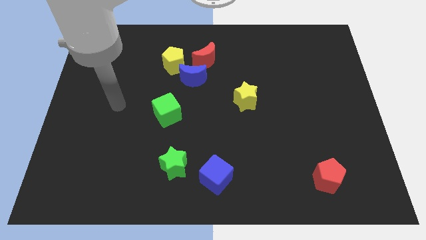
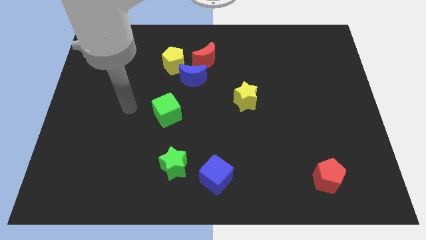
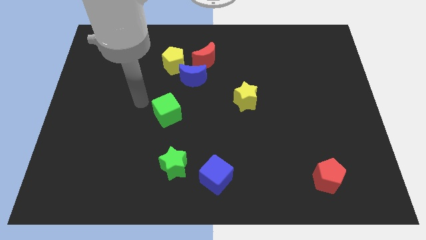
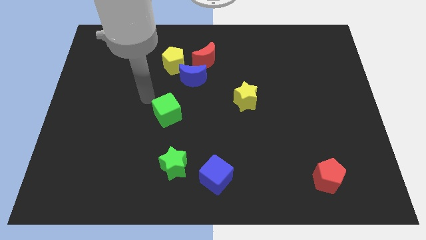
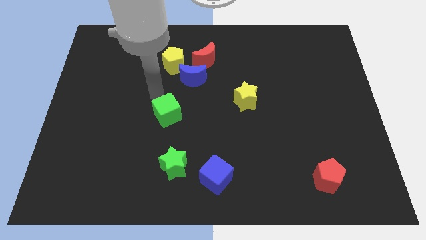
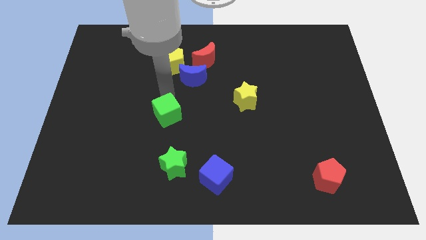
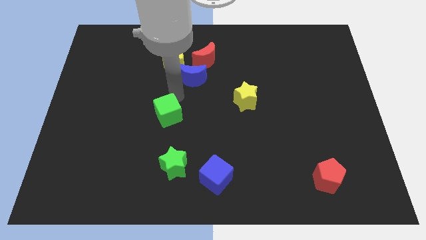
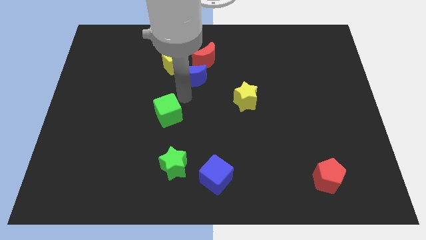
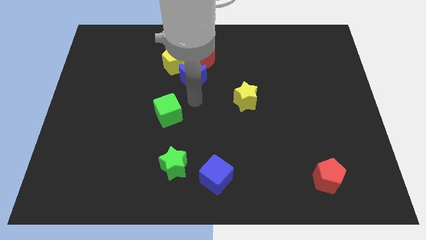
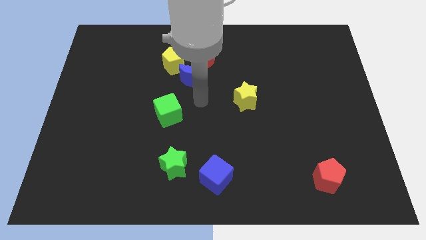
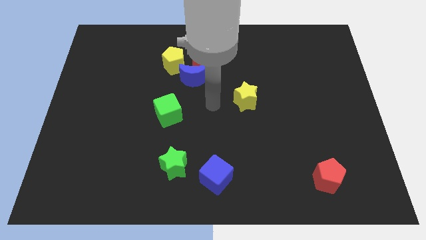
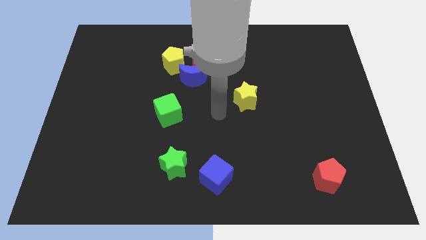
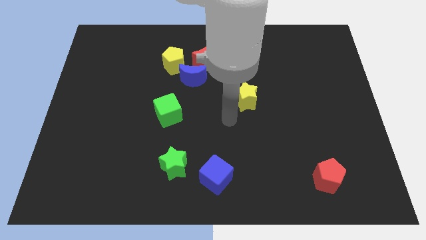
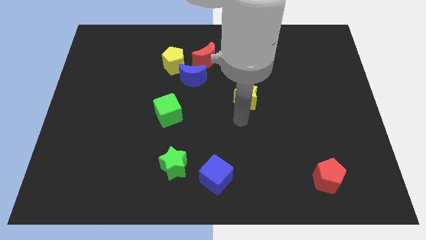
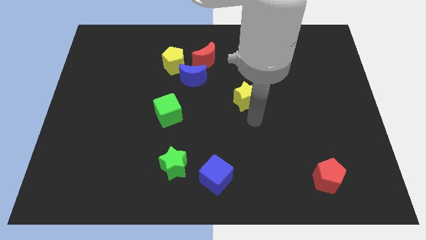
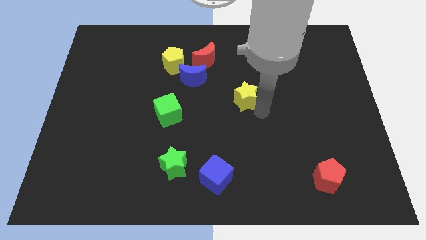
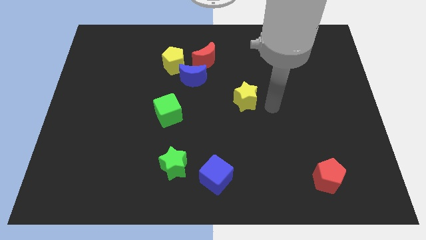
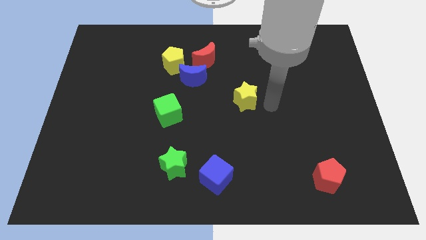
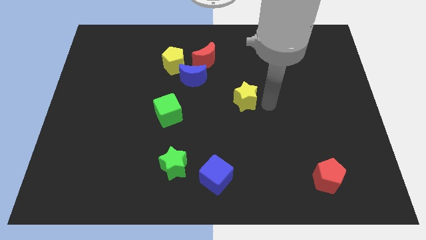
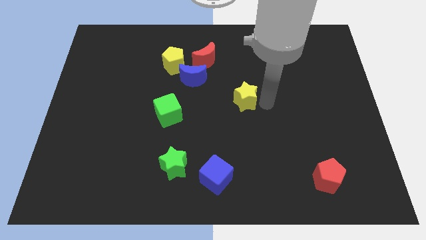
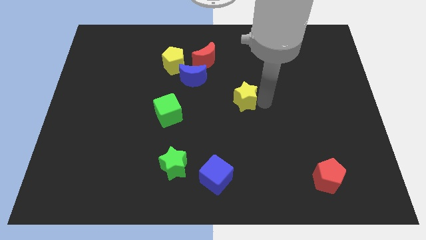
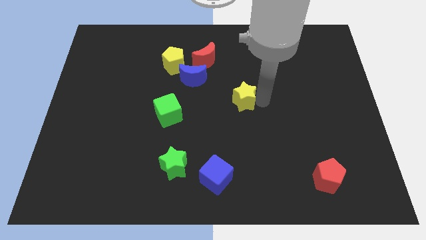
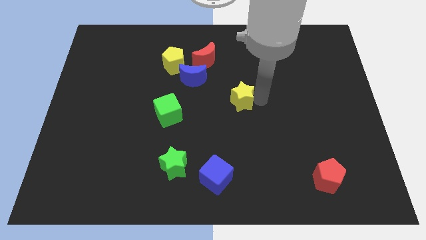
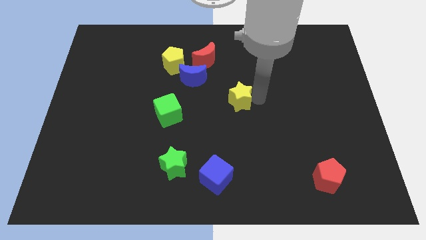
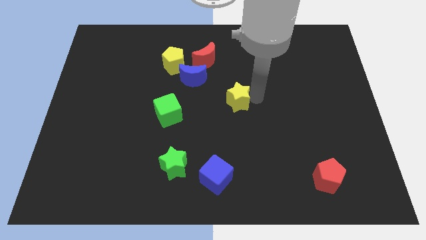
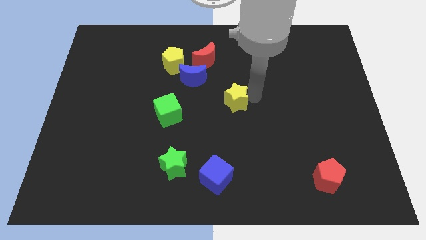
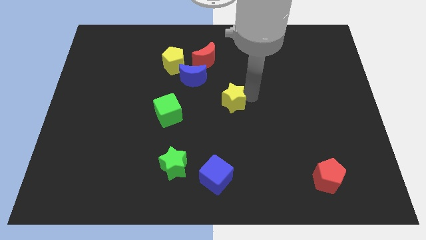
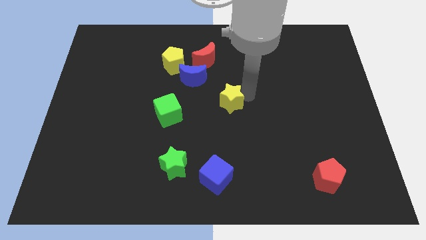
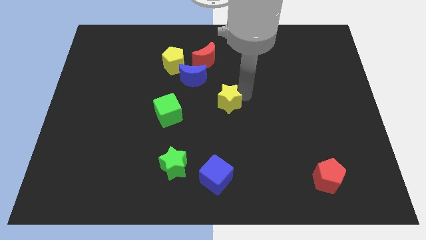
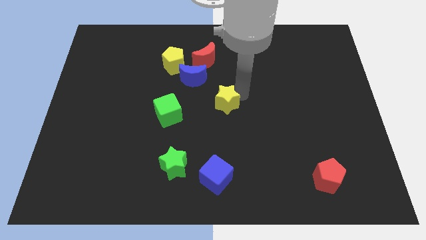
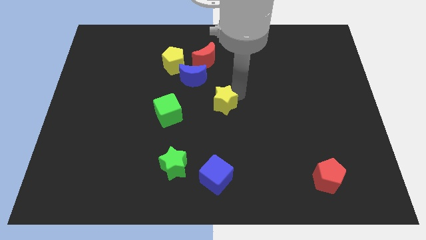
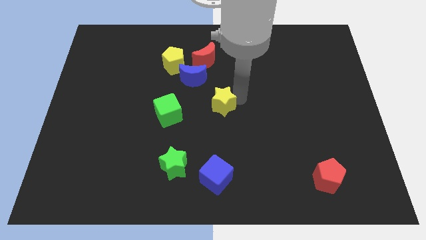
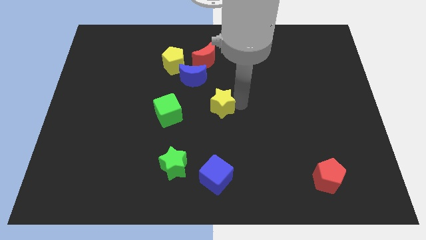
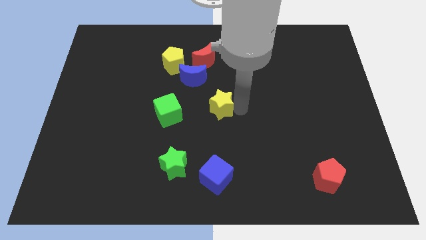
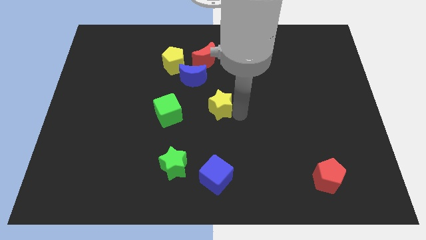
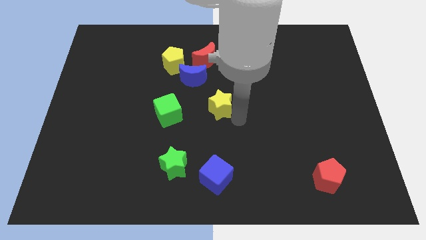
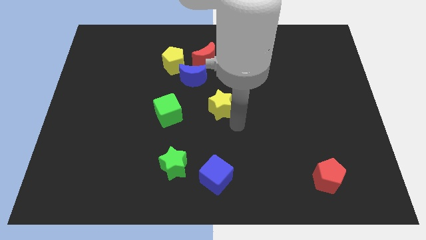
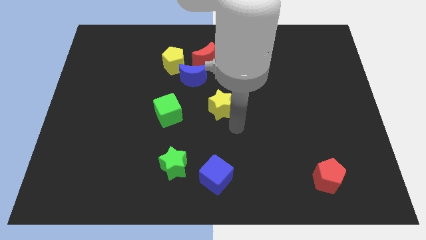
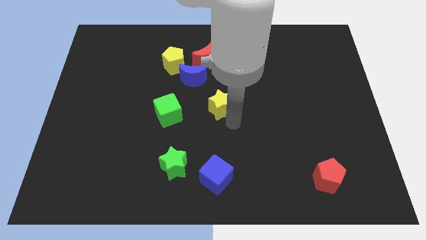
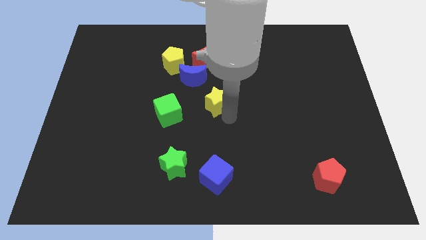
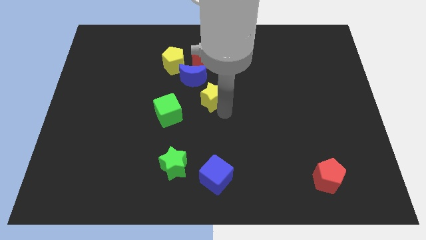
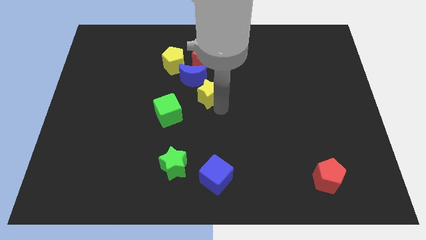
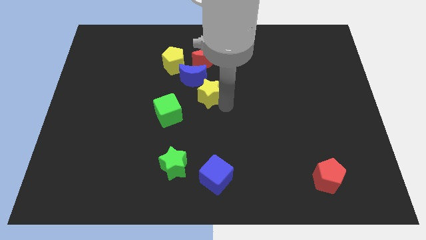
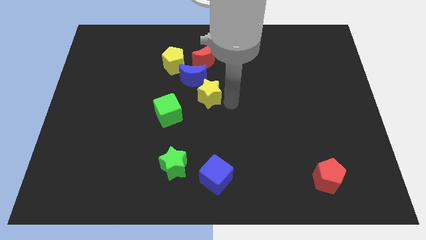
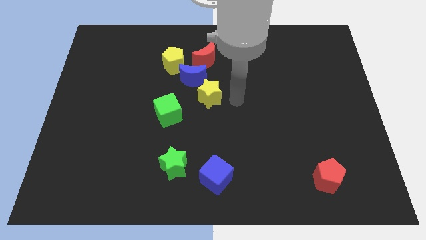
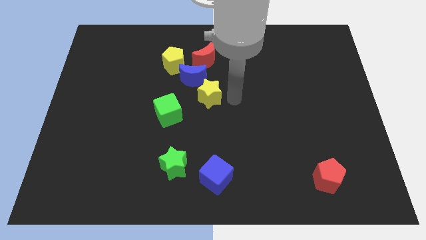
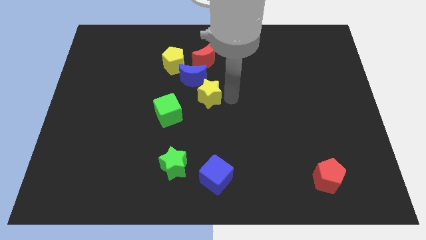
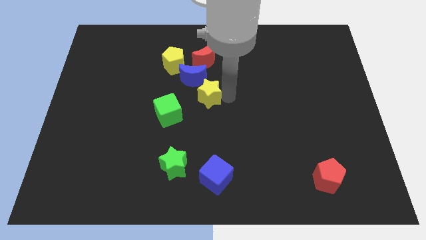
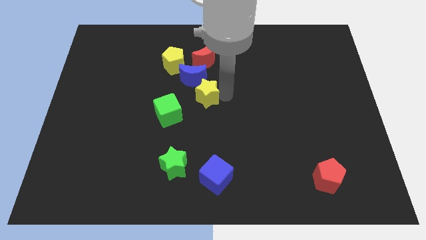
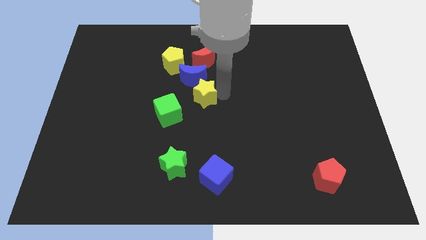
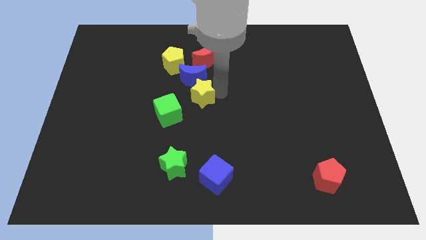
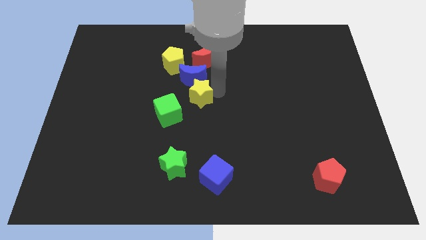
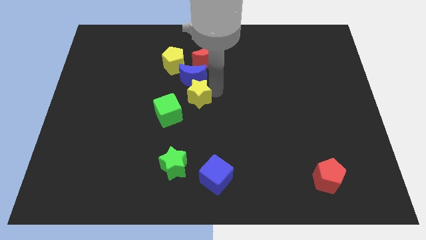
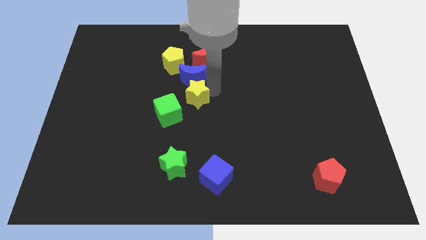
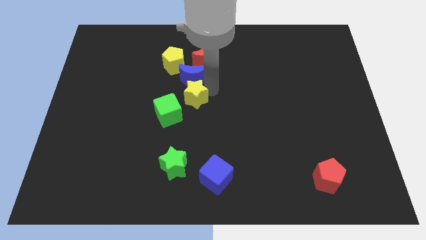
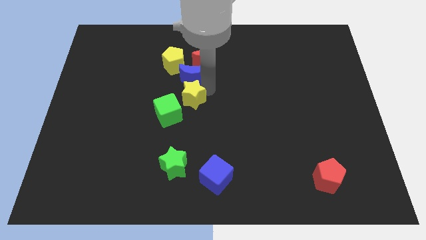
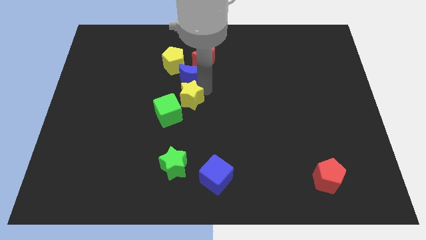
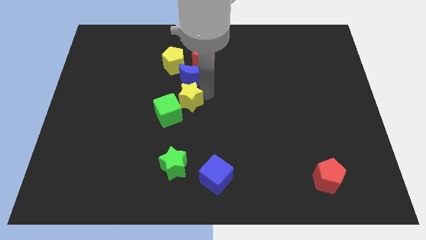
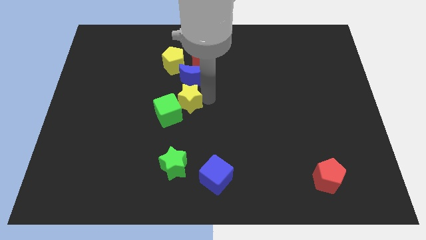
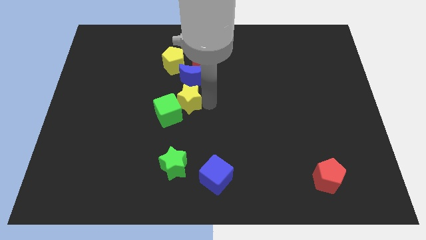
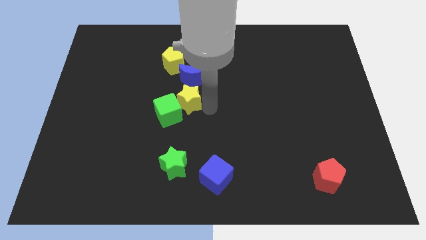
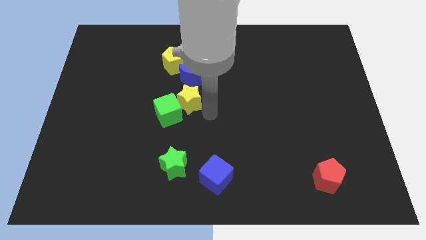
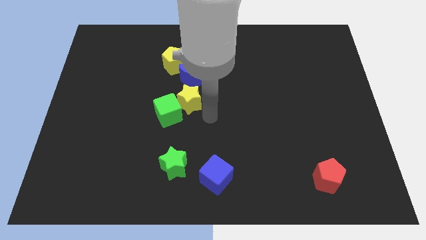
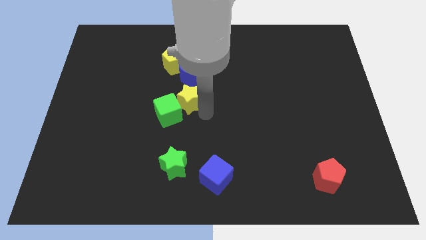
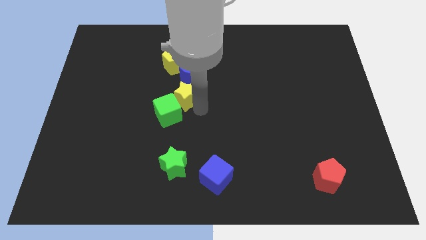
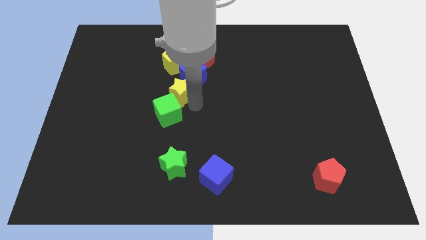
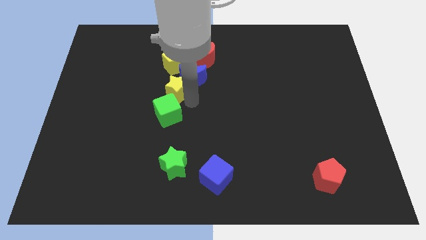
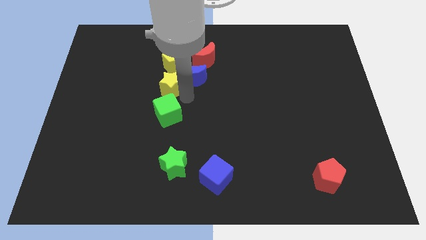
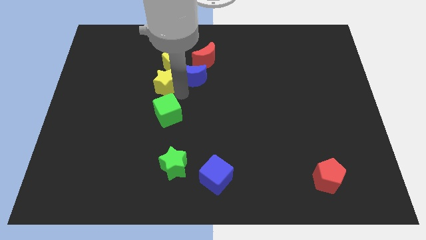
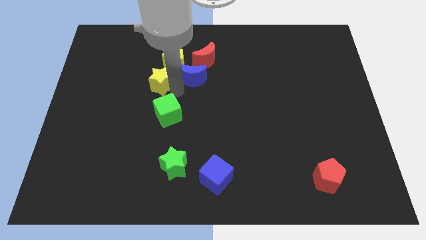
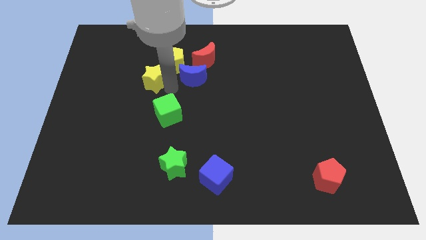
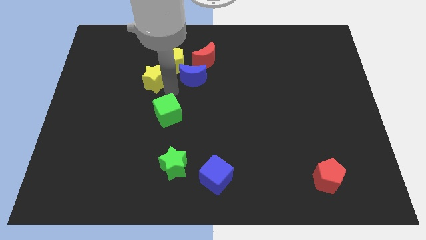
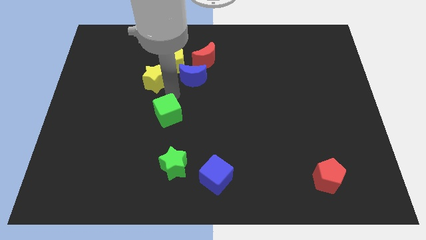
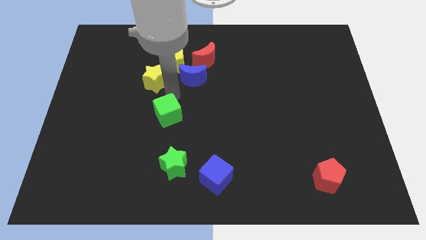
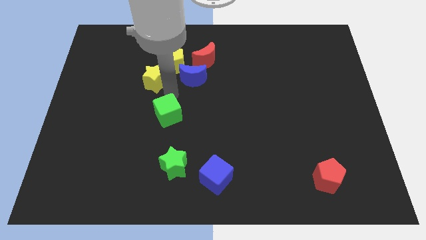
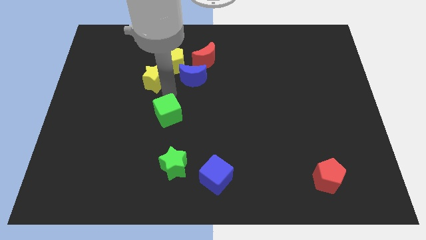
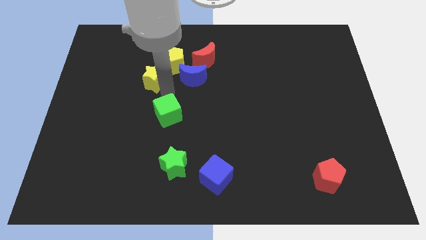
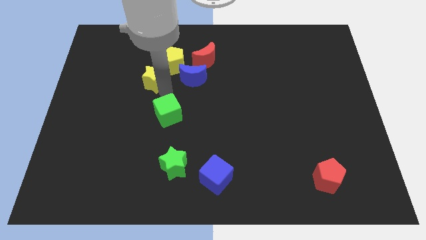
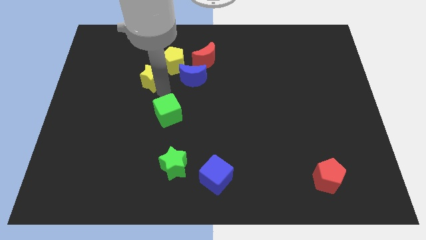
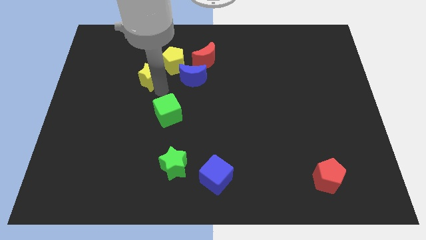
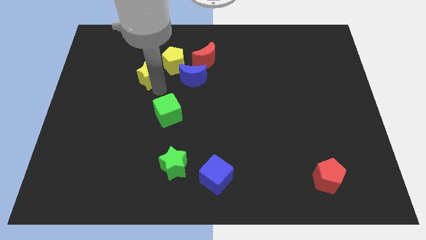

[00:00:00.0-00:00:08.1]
slide the yellow star to the left side of the yellow pentagon
